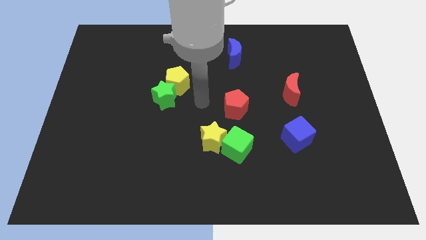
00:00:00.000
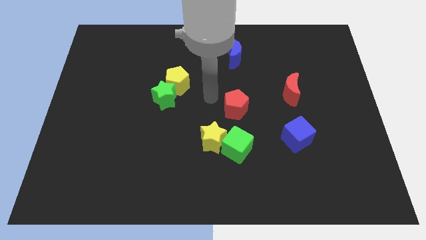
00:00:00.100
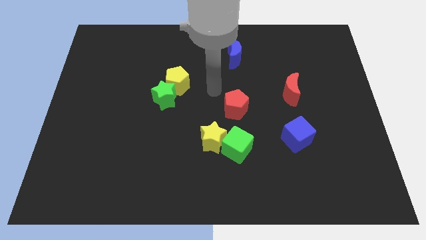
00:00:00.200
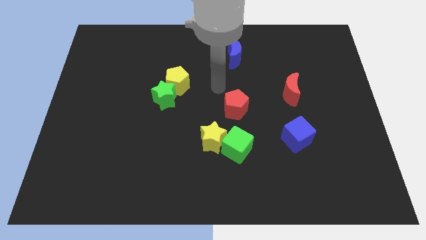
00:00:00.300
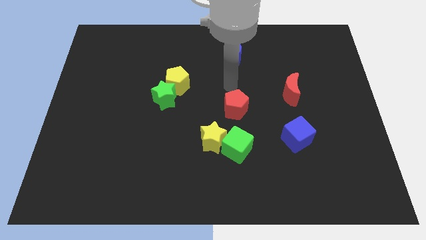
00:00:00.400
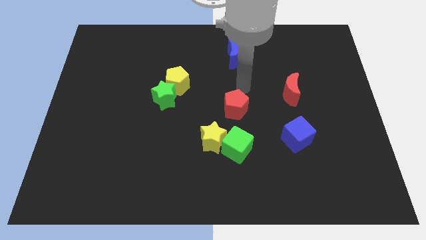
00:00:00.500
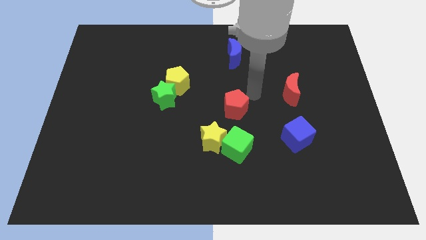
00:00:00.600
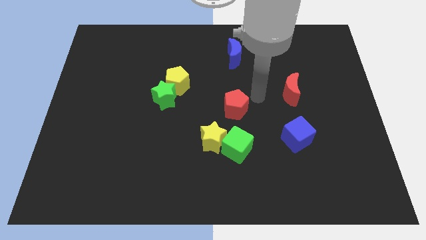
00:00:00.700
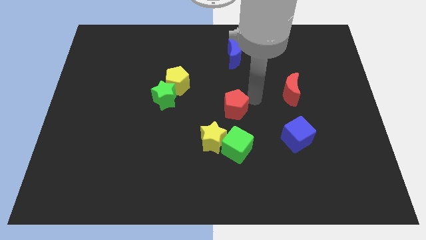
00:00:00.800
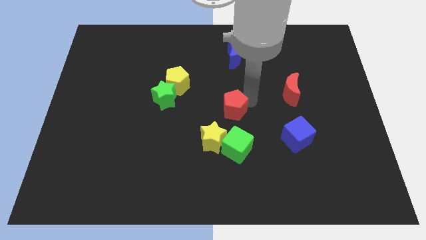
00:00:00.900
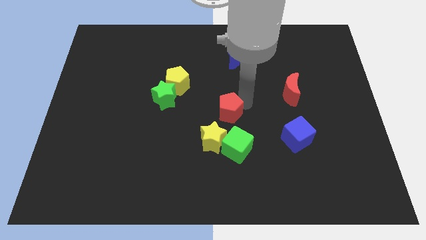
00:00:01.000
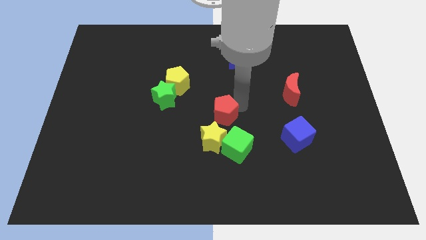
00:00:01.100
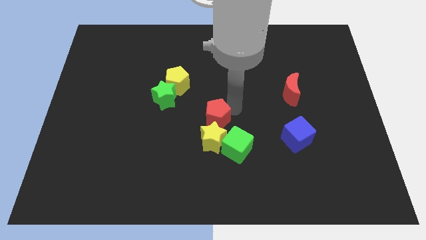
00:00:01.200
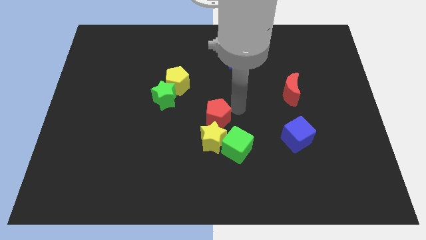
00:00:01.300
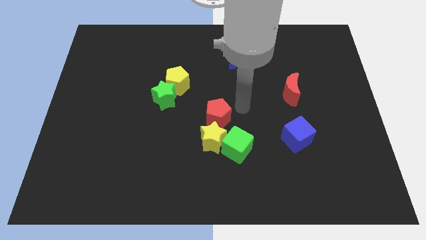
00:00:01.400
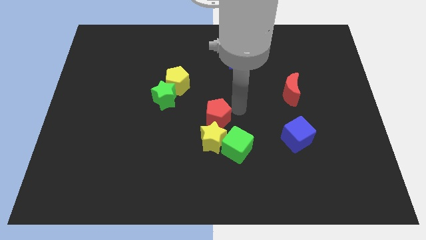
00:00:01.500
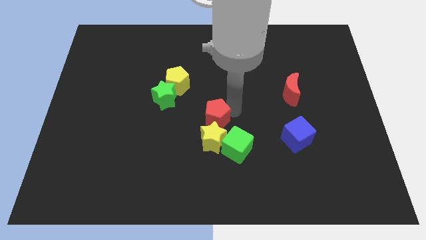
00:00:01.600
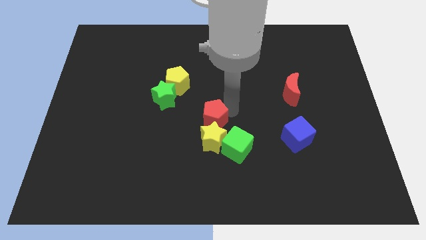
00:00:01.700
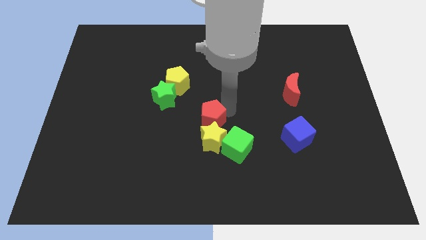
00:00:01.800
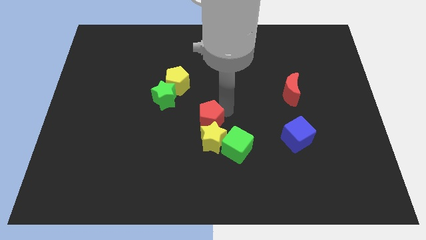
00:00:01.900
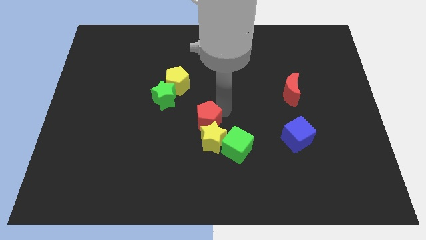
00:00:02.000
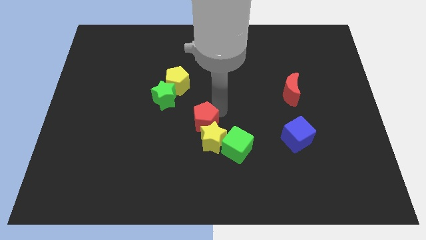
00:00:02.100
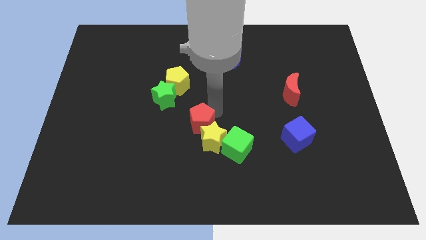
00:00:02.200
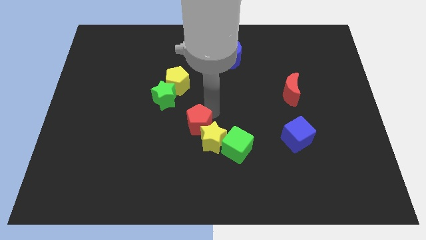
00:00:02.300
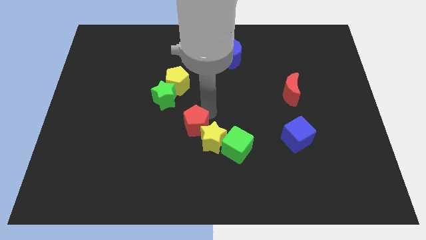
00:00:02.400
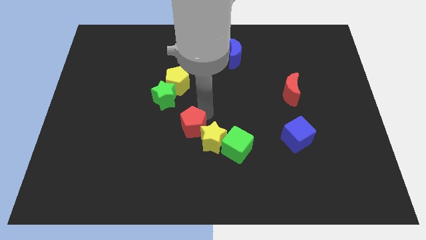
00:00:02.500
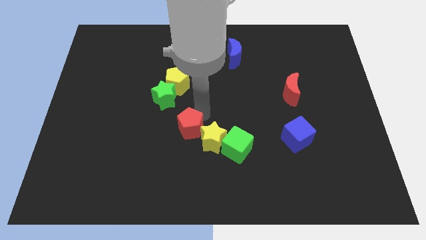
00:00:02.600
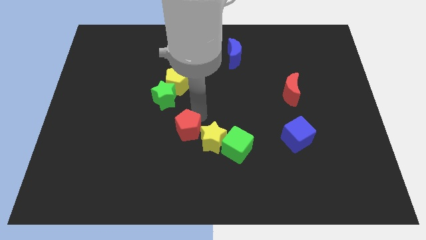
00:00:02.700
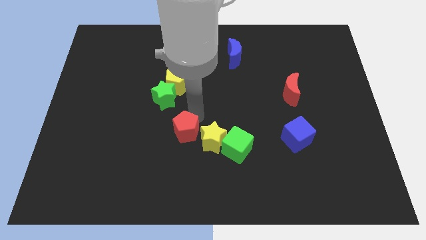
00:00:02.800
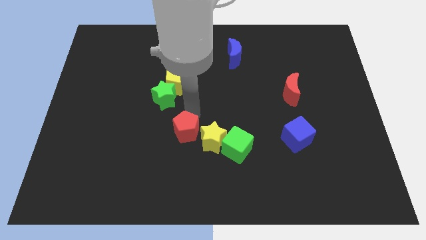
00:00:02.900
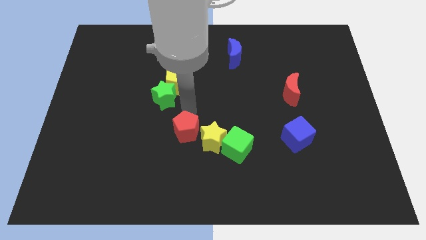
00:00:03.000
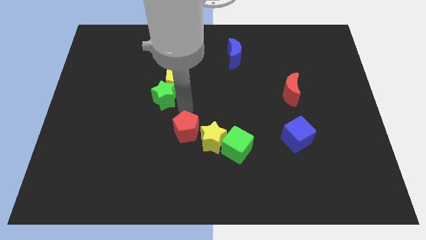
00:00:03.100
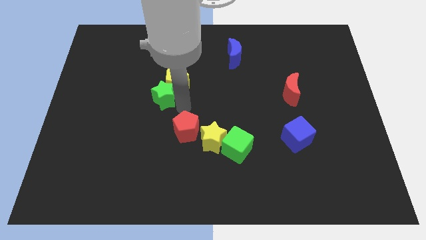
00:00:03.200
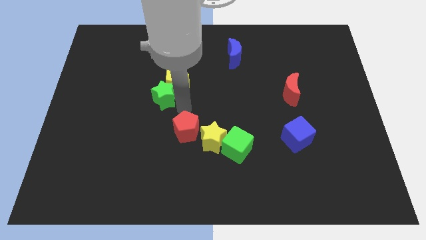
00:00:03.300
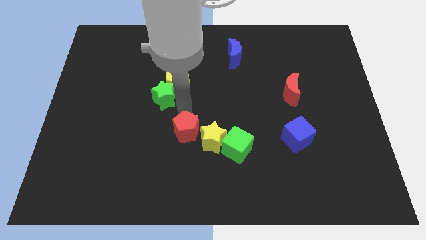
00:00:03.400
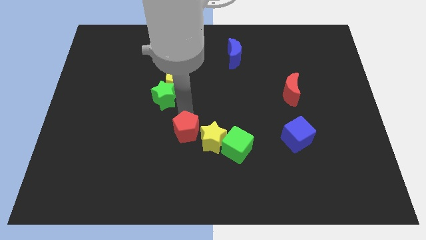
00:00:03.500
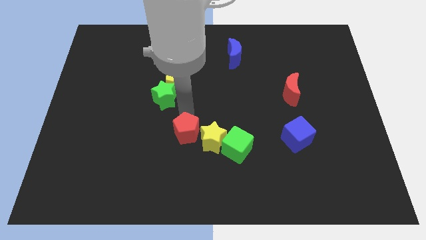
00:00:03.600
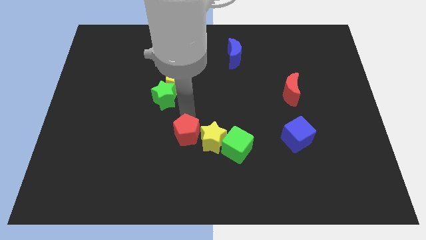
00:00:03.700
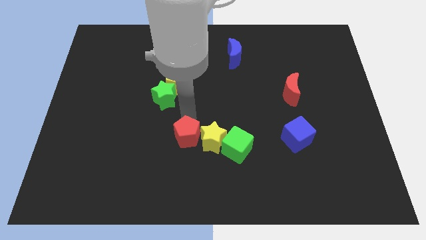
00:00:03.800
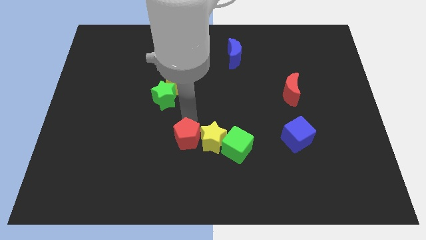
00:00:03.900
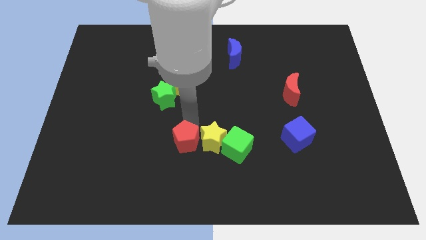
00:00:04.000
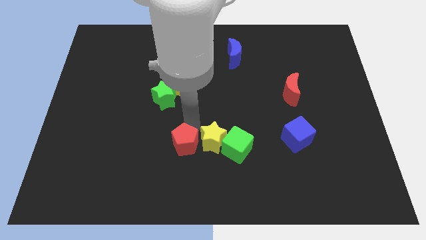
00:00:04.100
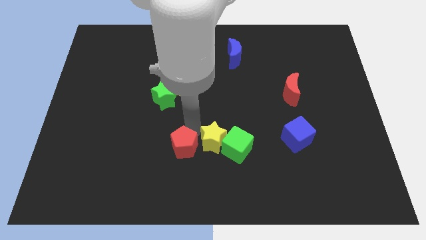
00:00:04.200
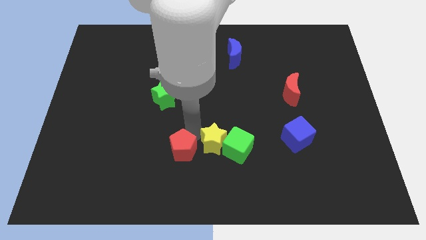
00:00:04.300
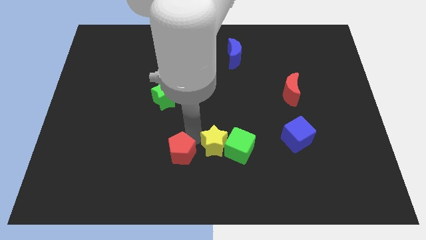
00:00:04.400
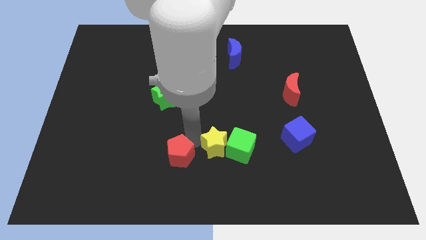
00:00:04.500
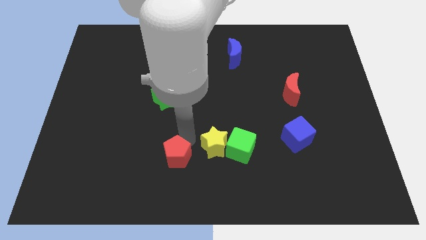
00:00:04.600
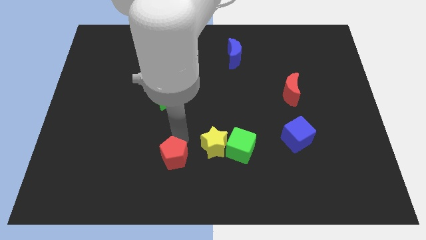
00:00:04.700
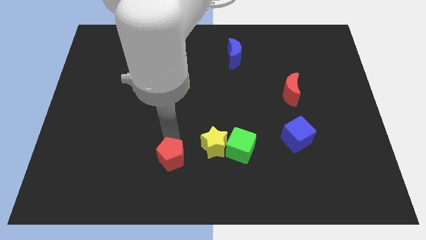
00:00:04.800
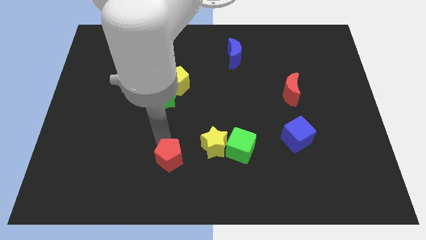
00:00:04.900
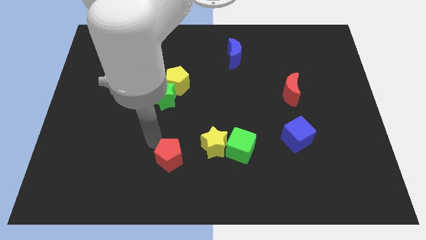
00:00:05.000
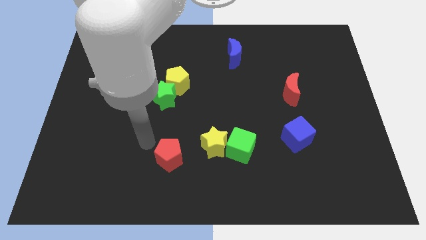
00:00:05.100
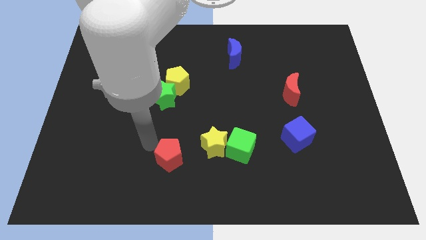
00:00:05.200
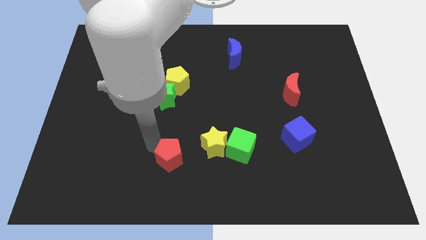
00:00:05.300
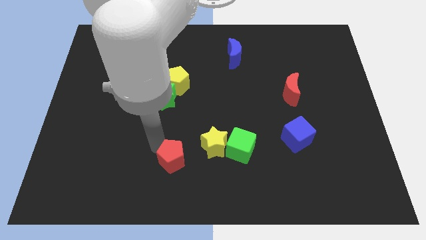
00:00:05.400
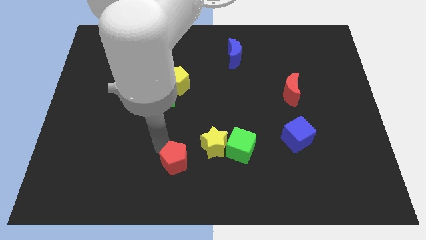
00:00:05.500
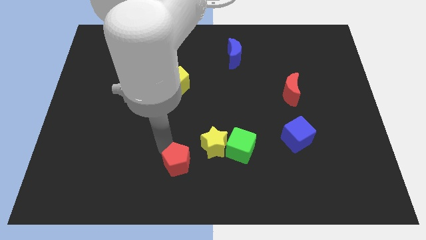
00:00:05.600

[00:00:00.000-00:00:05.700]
push the red pentagon to the bottom side

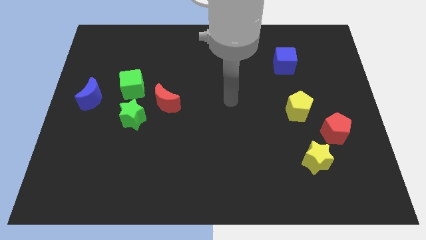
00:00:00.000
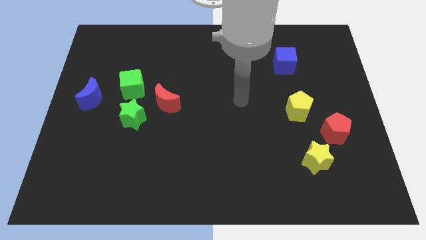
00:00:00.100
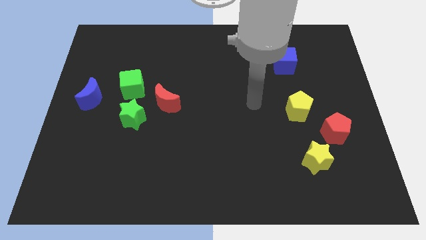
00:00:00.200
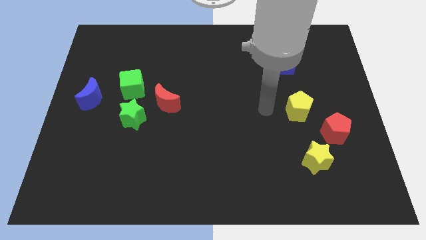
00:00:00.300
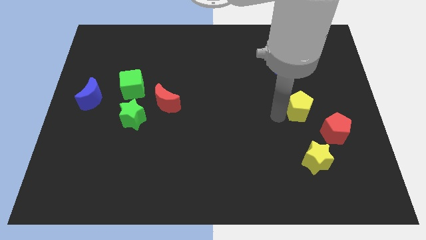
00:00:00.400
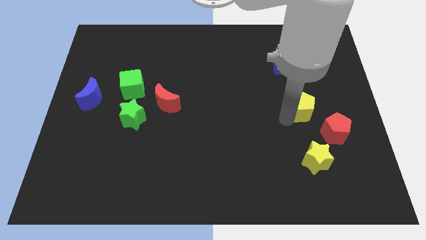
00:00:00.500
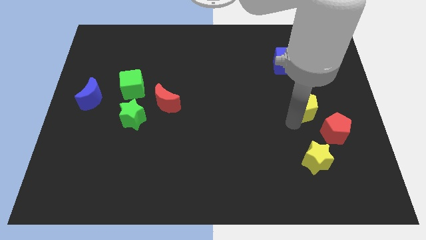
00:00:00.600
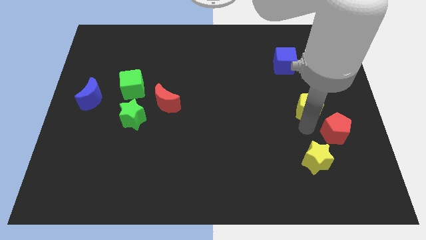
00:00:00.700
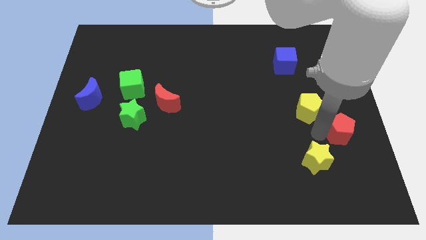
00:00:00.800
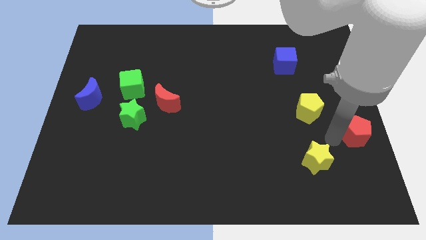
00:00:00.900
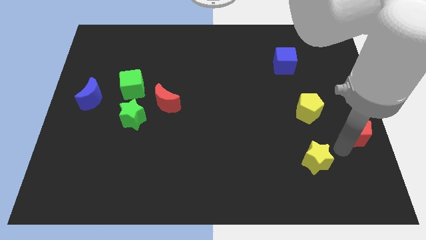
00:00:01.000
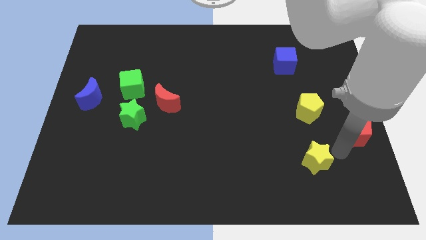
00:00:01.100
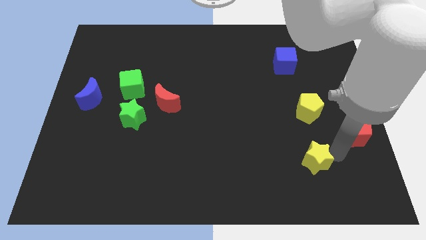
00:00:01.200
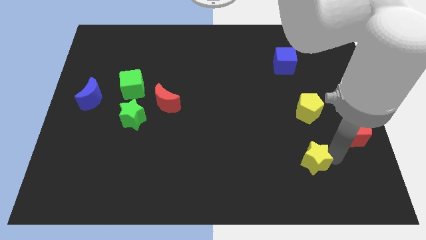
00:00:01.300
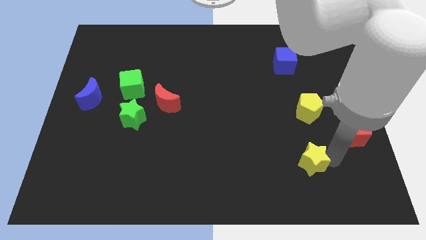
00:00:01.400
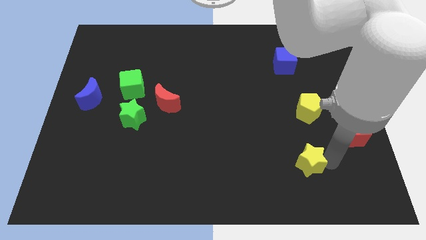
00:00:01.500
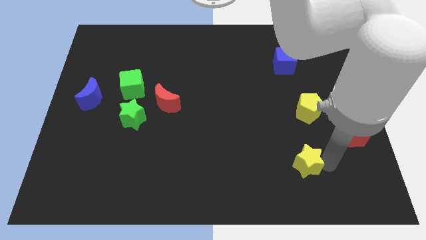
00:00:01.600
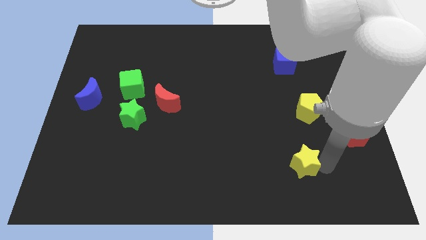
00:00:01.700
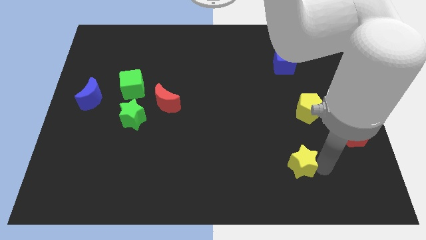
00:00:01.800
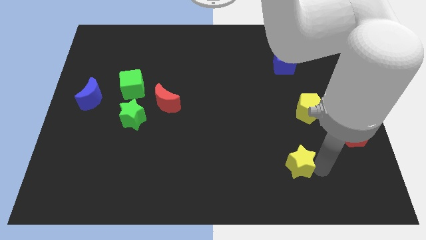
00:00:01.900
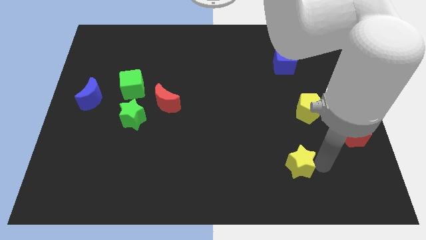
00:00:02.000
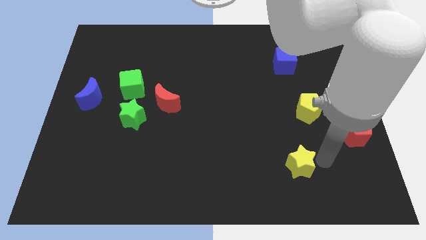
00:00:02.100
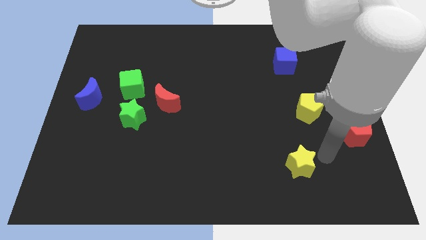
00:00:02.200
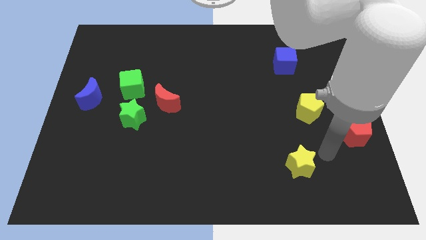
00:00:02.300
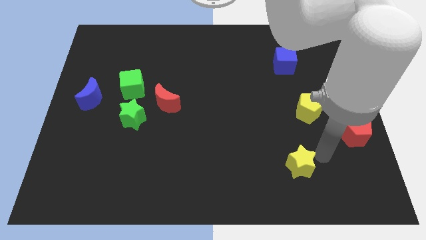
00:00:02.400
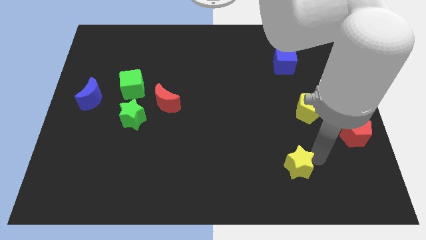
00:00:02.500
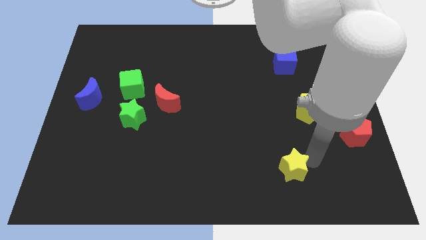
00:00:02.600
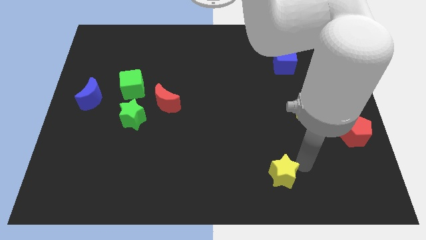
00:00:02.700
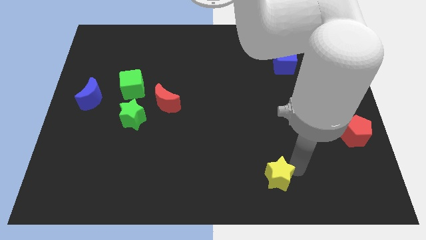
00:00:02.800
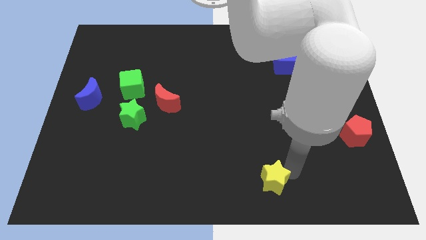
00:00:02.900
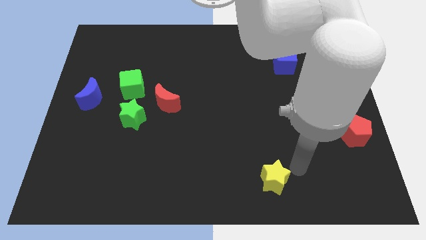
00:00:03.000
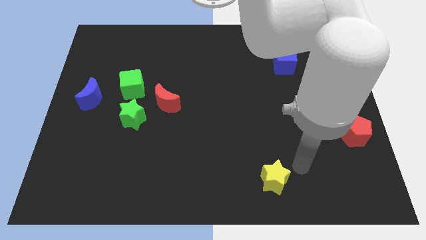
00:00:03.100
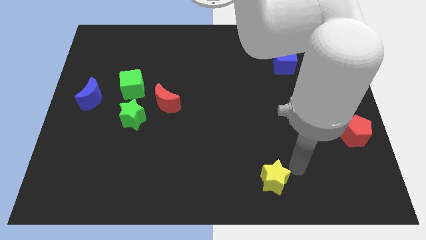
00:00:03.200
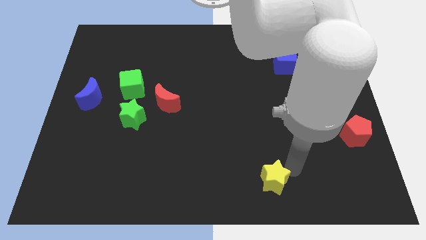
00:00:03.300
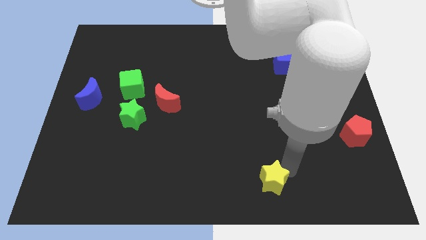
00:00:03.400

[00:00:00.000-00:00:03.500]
put the yellow star to the bottom side
